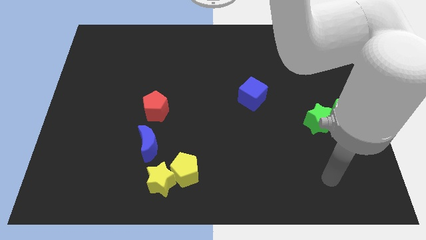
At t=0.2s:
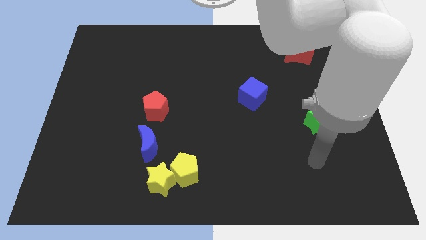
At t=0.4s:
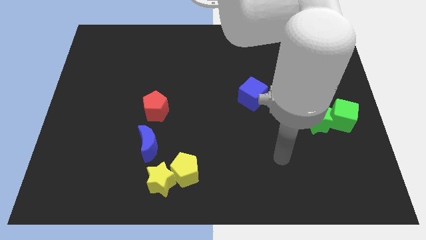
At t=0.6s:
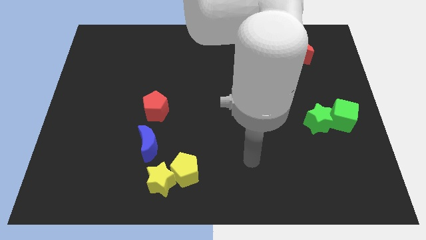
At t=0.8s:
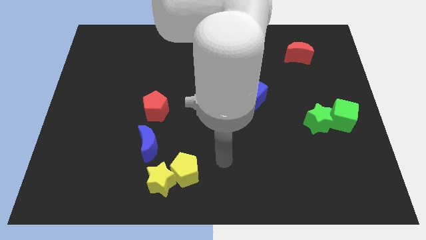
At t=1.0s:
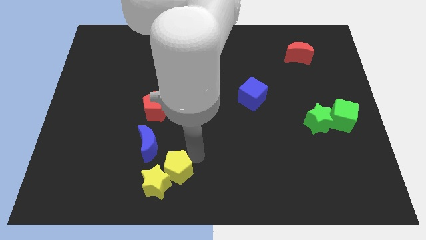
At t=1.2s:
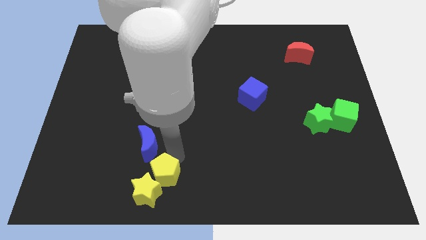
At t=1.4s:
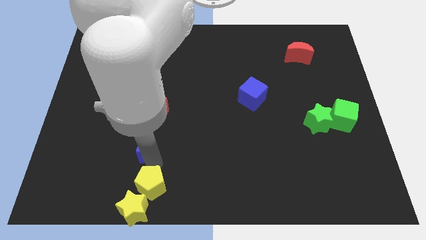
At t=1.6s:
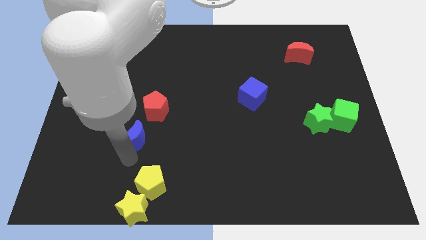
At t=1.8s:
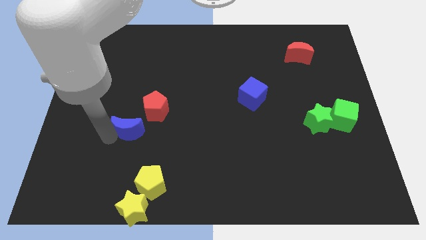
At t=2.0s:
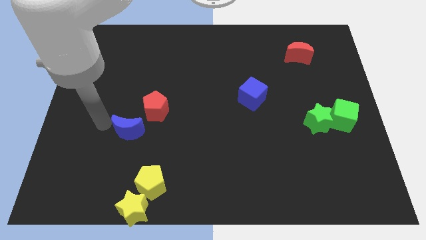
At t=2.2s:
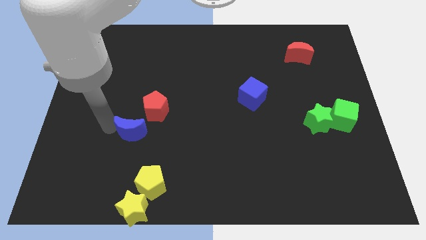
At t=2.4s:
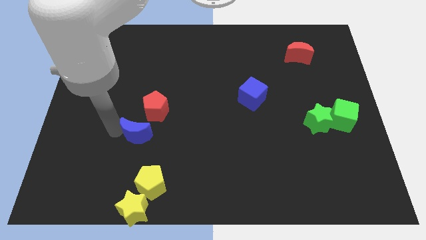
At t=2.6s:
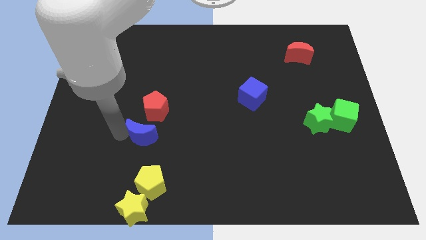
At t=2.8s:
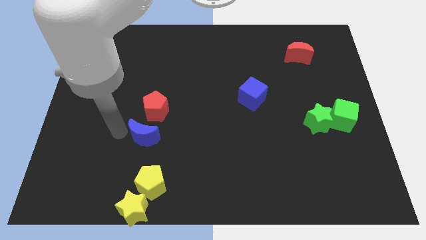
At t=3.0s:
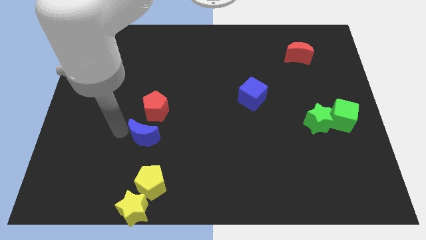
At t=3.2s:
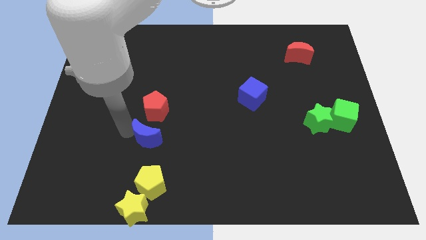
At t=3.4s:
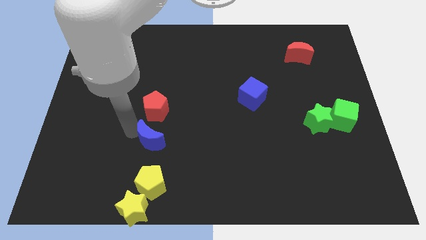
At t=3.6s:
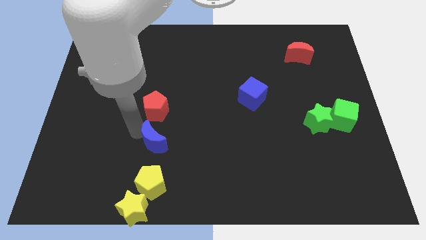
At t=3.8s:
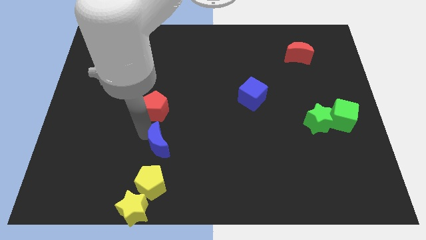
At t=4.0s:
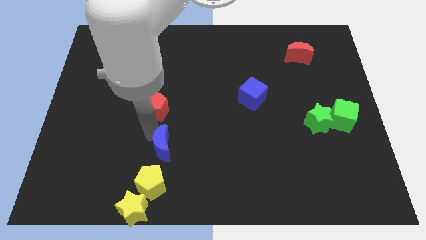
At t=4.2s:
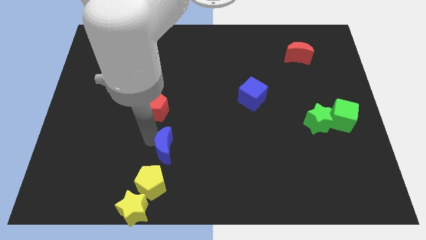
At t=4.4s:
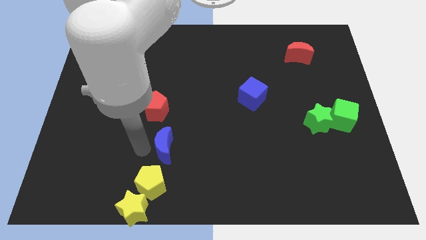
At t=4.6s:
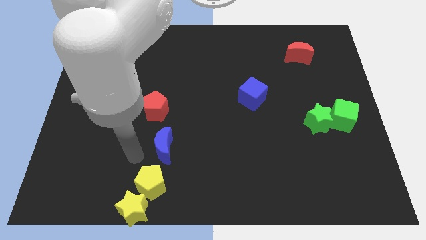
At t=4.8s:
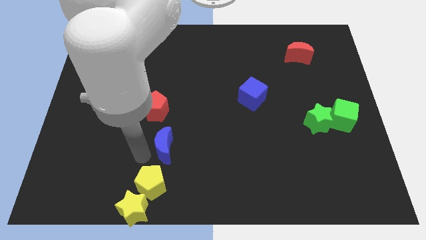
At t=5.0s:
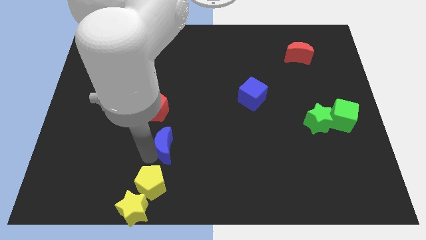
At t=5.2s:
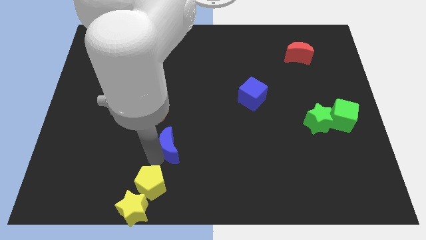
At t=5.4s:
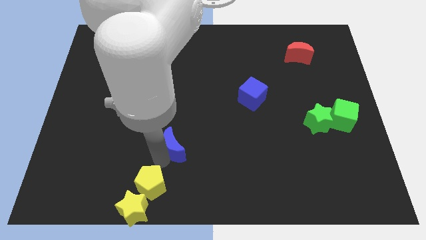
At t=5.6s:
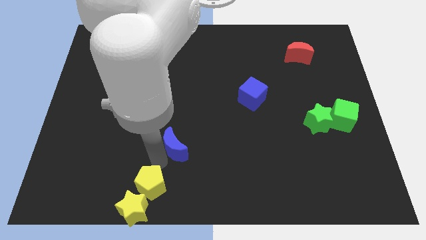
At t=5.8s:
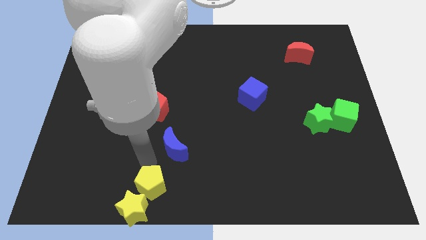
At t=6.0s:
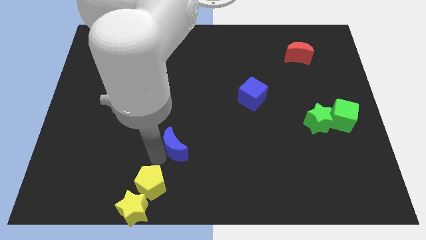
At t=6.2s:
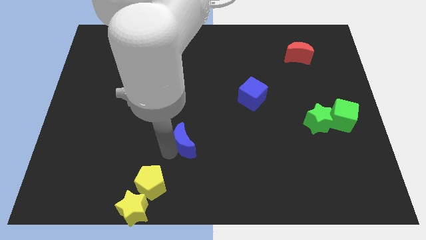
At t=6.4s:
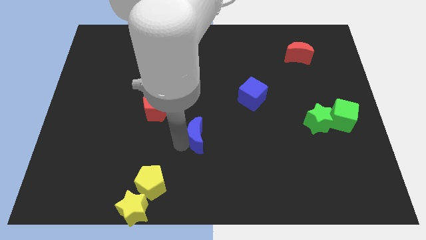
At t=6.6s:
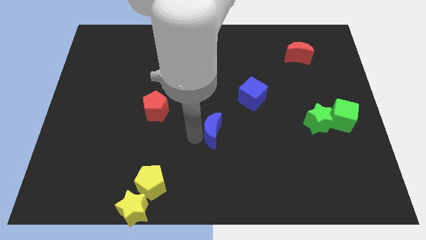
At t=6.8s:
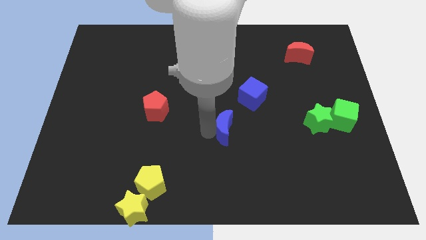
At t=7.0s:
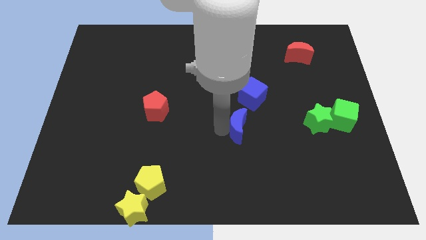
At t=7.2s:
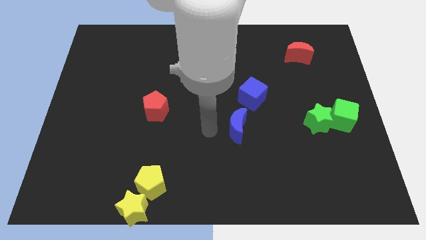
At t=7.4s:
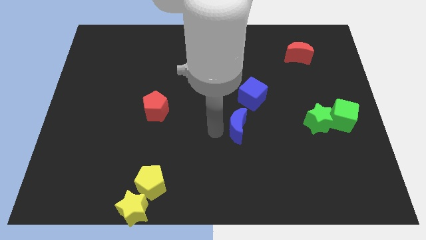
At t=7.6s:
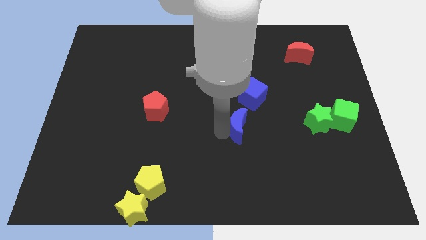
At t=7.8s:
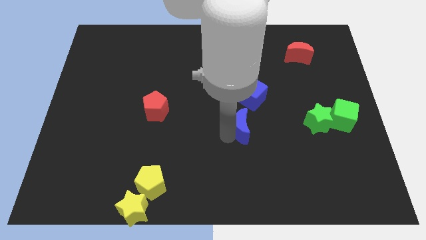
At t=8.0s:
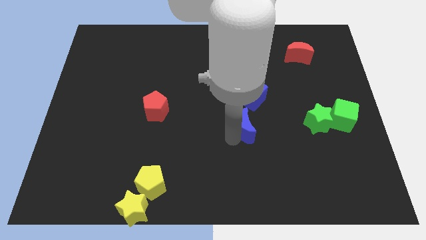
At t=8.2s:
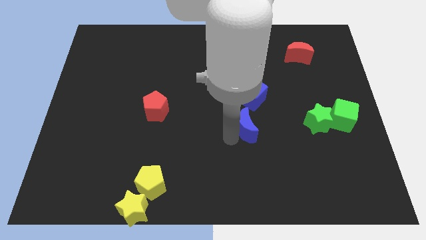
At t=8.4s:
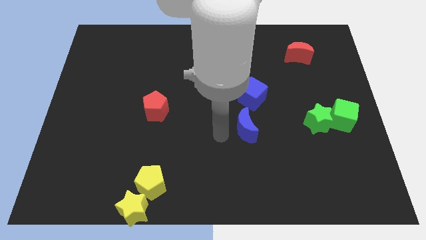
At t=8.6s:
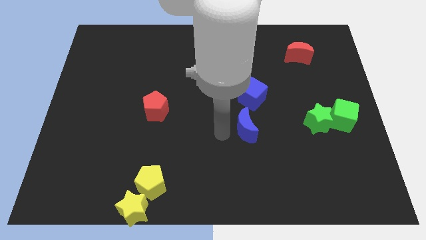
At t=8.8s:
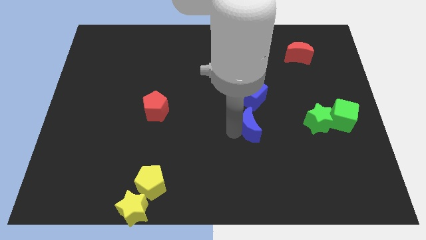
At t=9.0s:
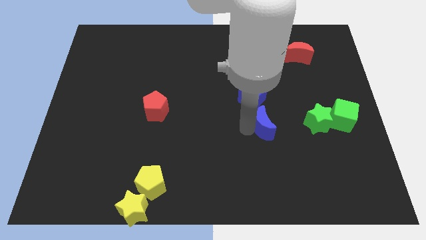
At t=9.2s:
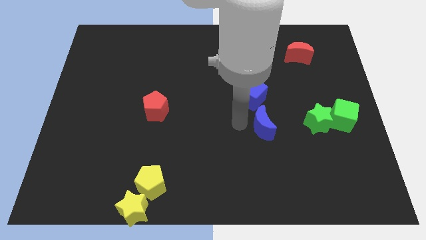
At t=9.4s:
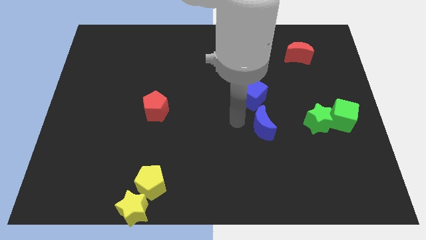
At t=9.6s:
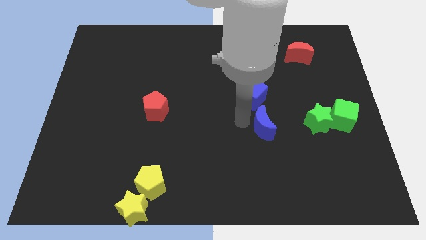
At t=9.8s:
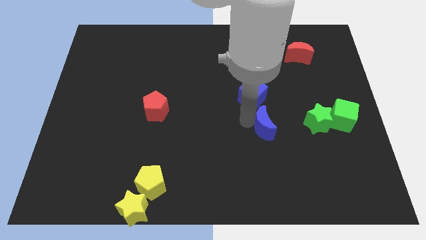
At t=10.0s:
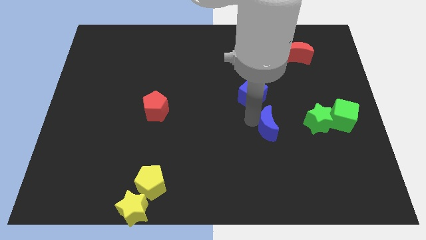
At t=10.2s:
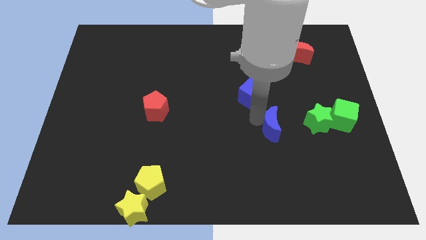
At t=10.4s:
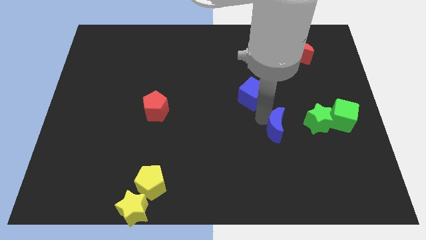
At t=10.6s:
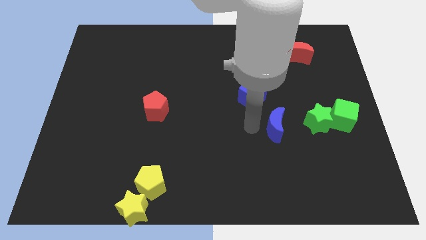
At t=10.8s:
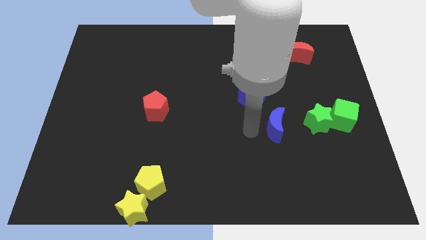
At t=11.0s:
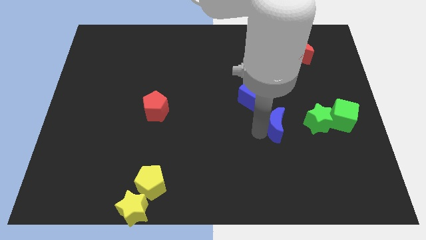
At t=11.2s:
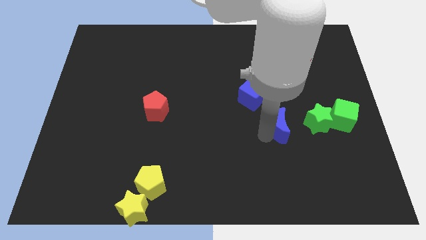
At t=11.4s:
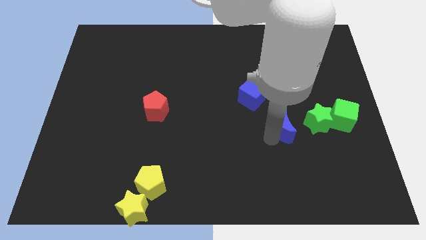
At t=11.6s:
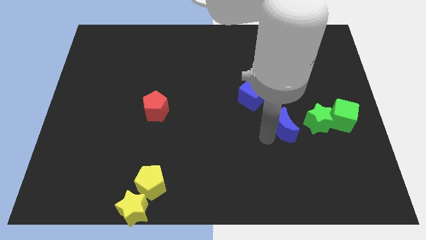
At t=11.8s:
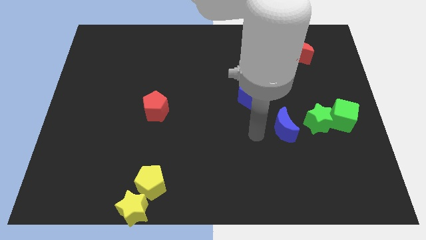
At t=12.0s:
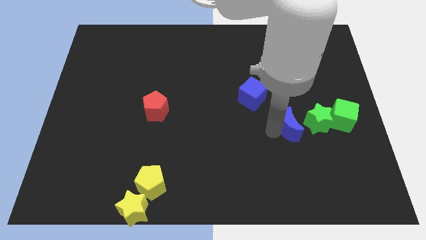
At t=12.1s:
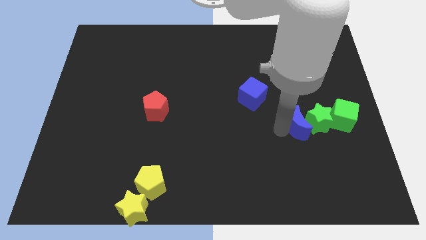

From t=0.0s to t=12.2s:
move the blue moon towards the green star
